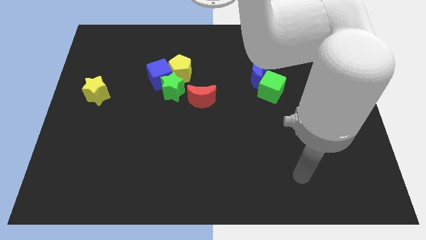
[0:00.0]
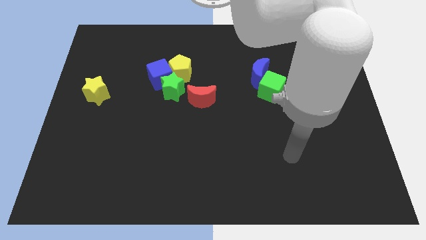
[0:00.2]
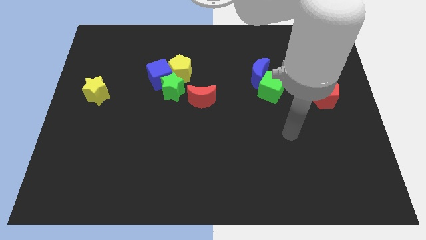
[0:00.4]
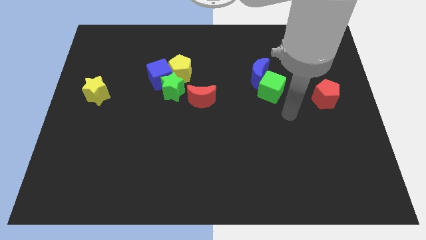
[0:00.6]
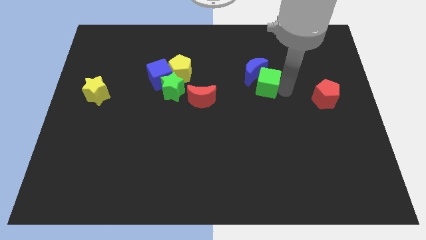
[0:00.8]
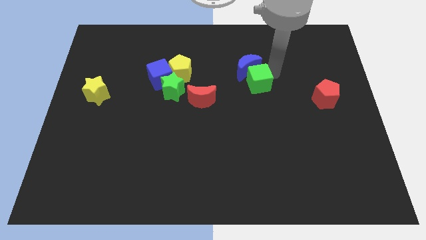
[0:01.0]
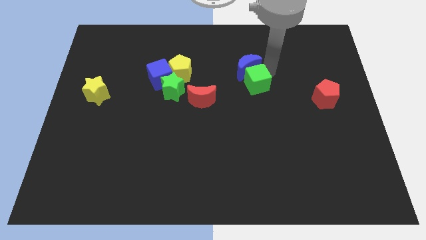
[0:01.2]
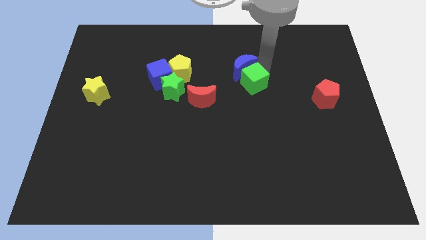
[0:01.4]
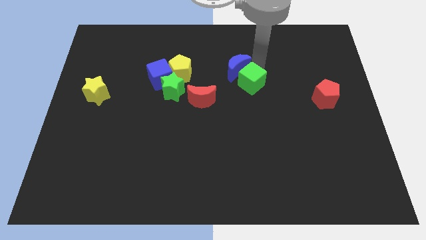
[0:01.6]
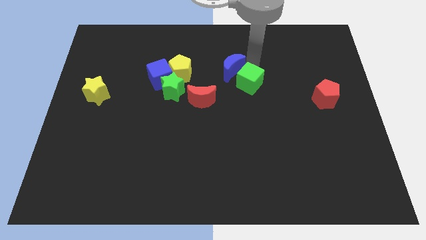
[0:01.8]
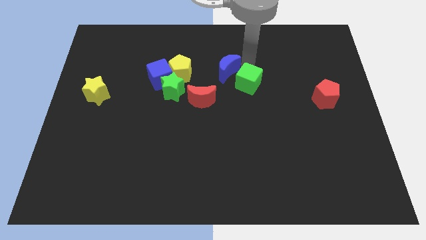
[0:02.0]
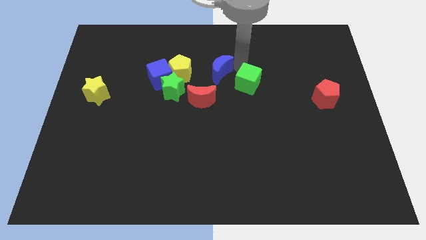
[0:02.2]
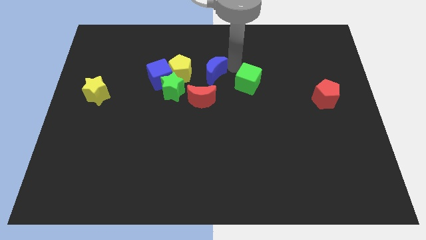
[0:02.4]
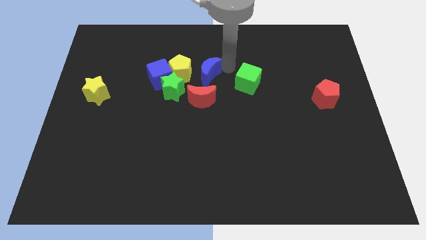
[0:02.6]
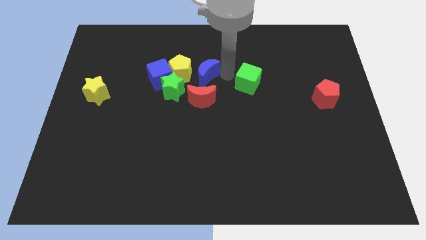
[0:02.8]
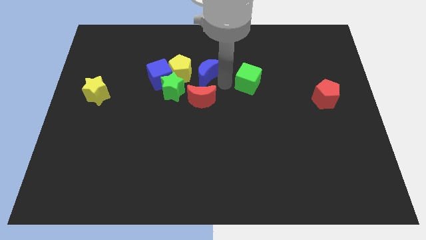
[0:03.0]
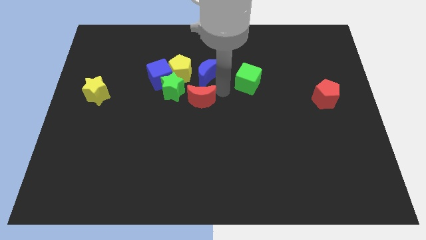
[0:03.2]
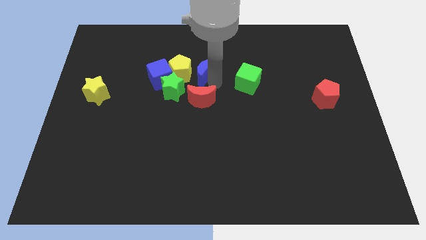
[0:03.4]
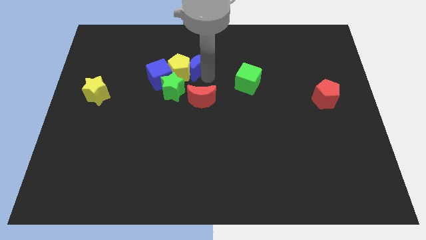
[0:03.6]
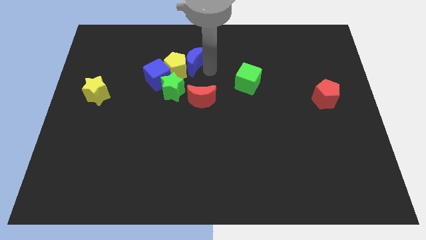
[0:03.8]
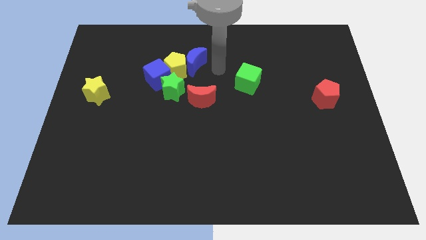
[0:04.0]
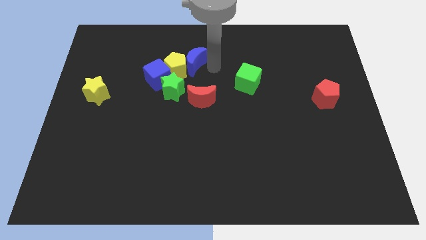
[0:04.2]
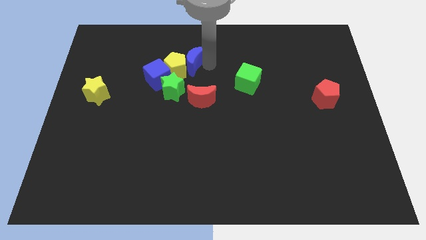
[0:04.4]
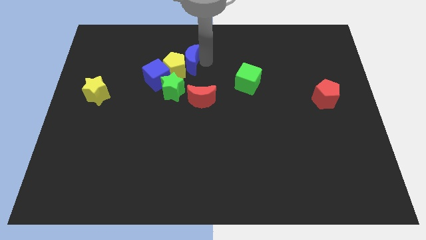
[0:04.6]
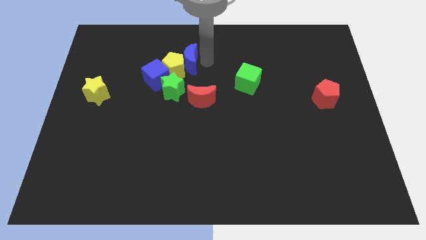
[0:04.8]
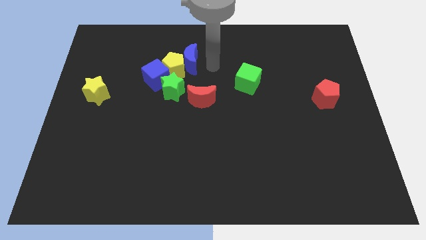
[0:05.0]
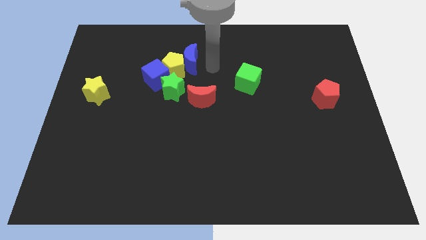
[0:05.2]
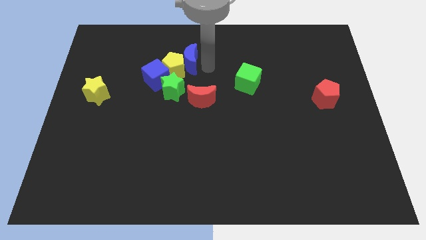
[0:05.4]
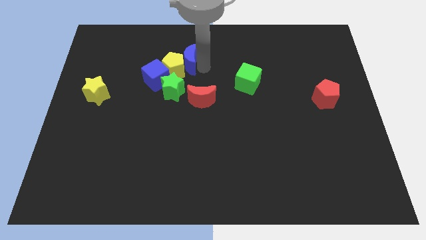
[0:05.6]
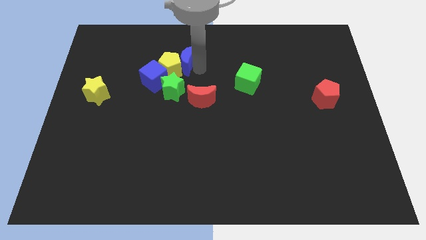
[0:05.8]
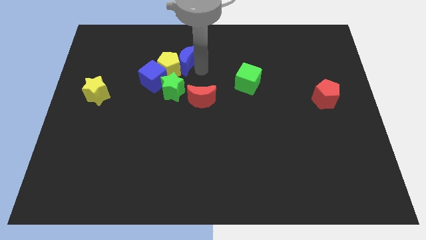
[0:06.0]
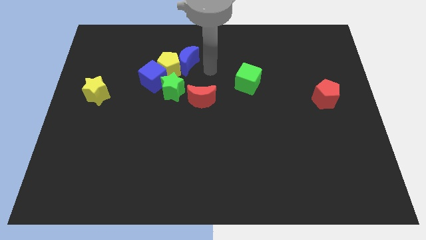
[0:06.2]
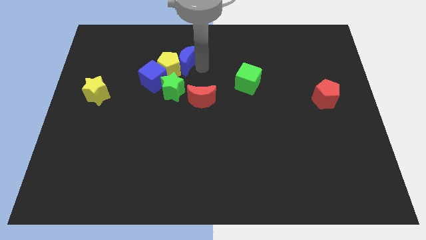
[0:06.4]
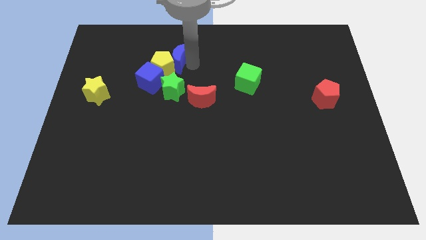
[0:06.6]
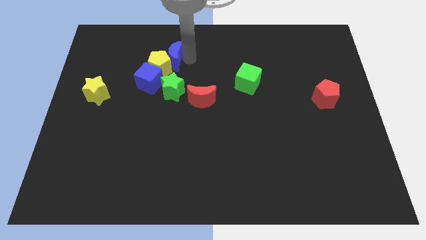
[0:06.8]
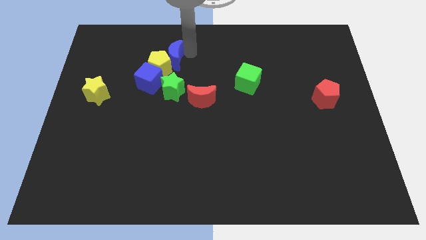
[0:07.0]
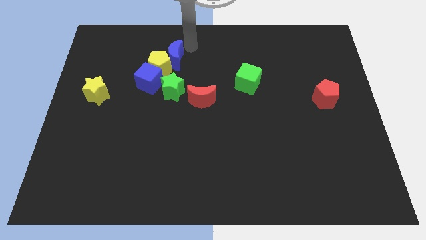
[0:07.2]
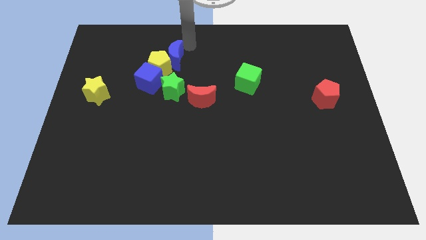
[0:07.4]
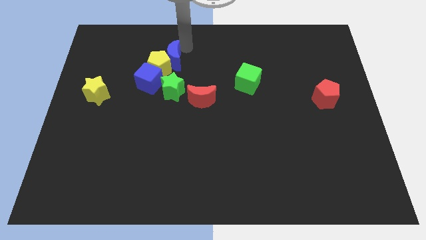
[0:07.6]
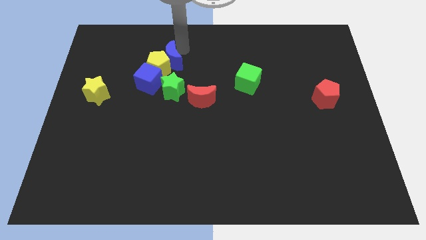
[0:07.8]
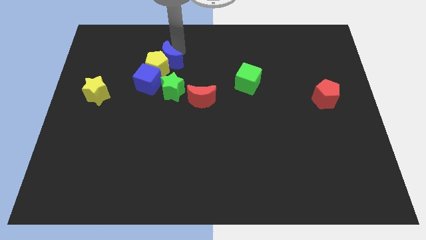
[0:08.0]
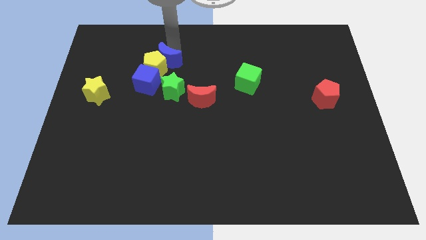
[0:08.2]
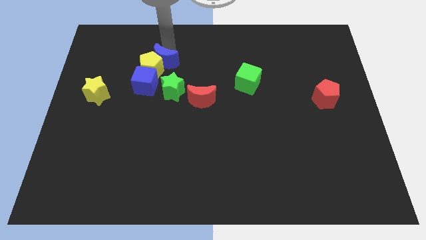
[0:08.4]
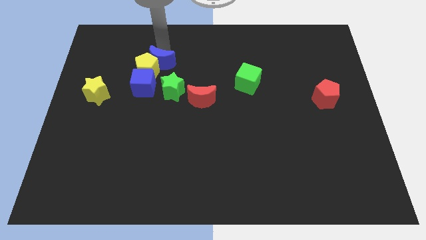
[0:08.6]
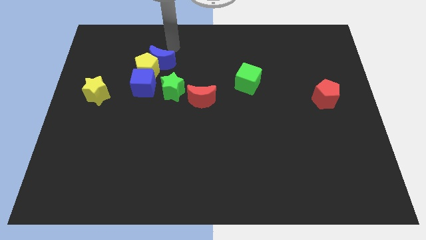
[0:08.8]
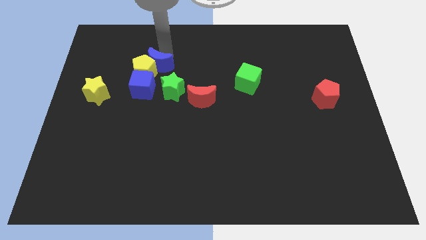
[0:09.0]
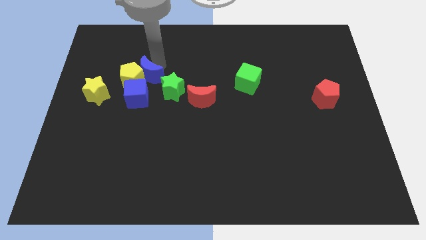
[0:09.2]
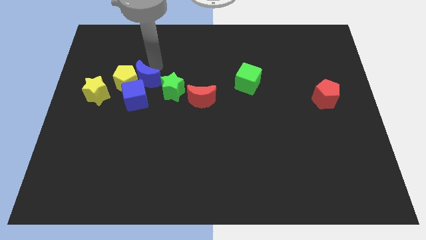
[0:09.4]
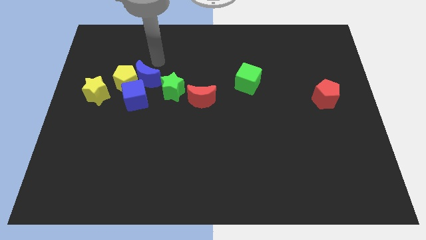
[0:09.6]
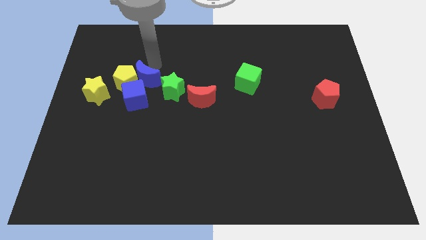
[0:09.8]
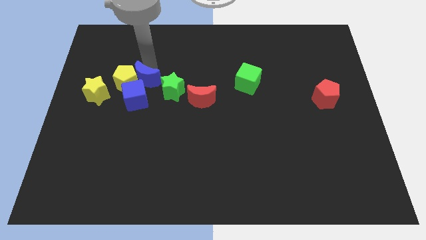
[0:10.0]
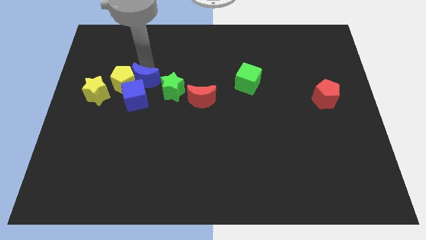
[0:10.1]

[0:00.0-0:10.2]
slide the blue moon towards the blue cube

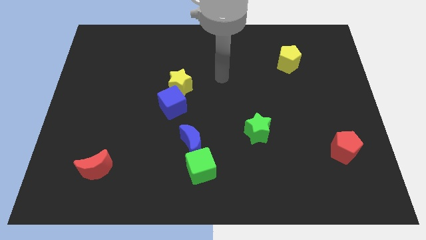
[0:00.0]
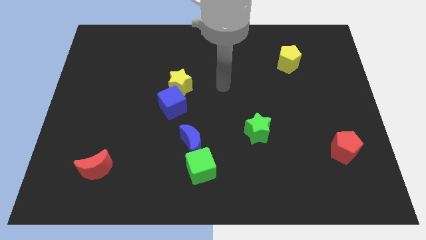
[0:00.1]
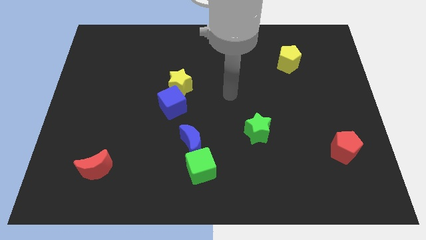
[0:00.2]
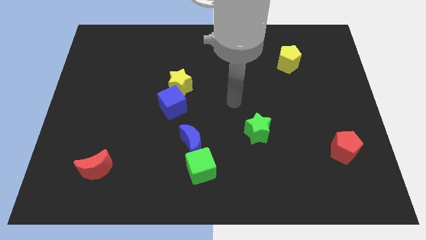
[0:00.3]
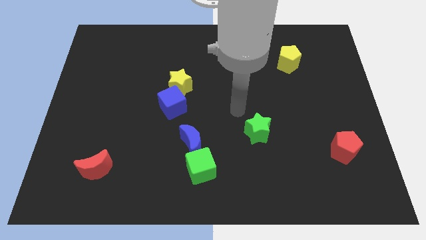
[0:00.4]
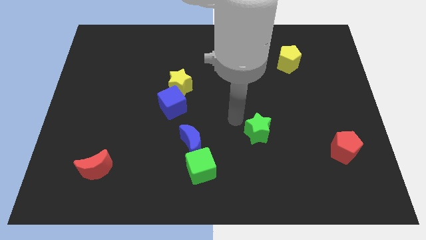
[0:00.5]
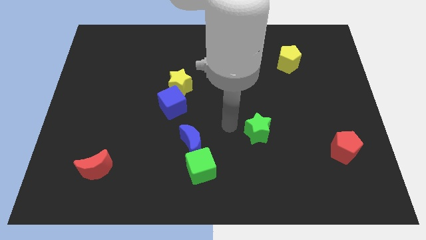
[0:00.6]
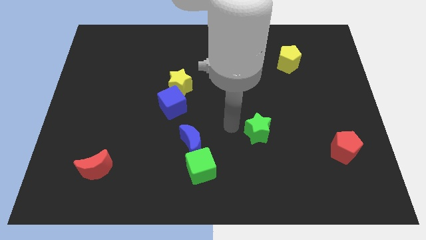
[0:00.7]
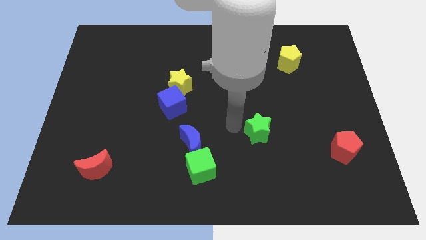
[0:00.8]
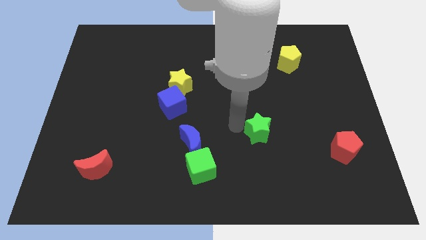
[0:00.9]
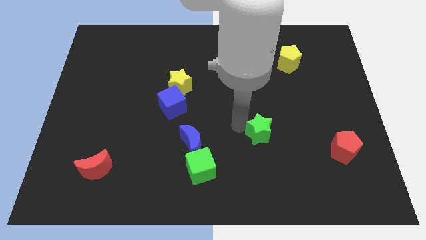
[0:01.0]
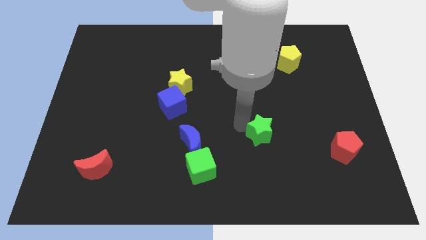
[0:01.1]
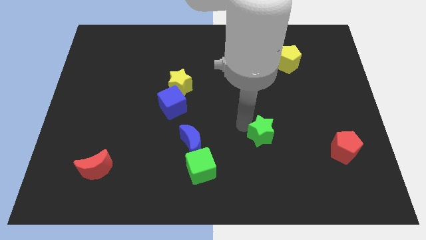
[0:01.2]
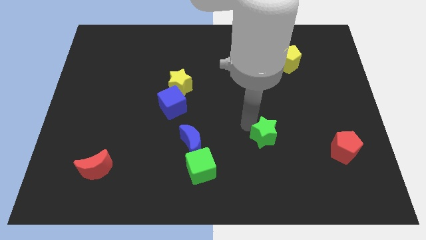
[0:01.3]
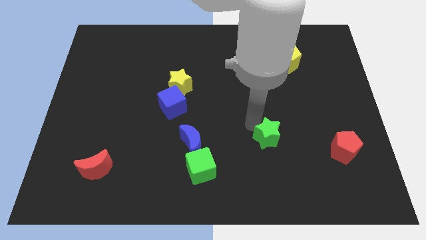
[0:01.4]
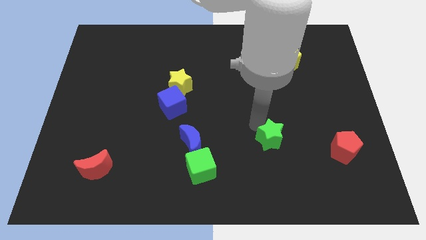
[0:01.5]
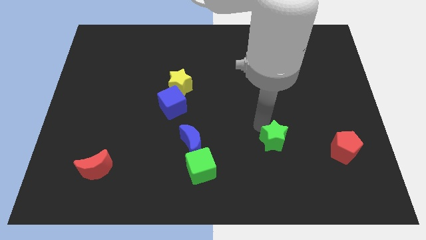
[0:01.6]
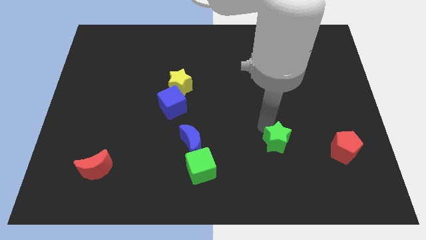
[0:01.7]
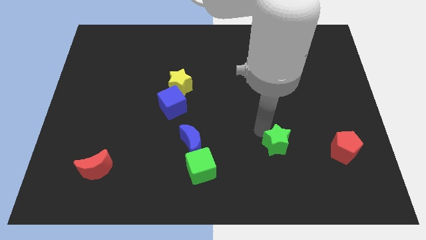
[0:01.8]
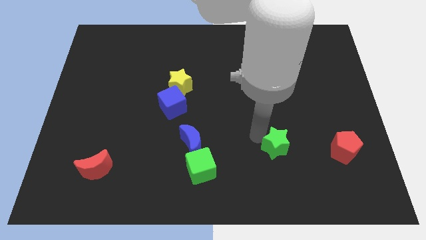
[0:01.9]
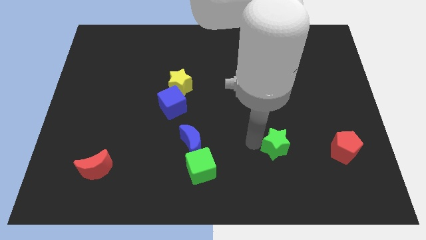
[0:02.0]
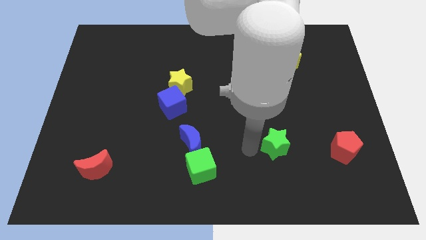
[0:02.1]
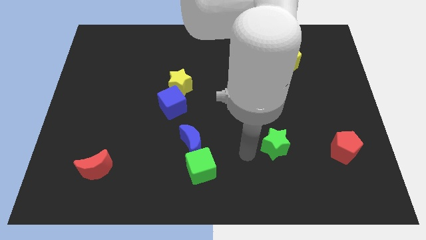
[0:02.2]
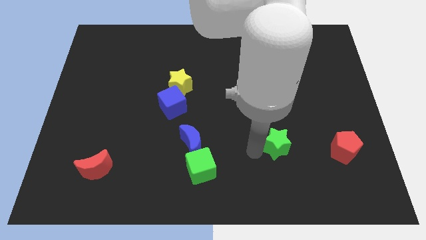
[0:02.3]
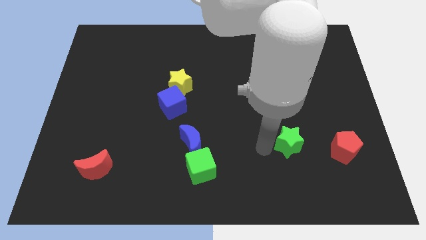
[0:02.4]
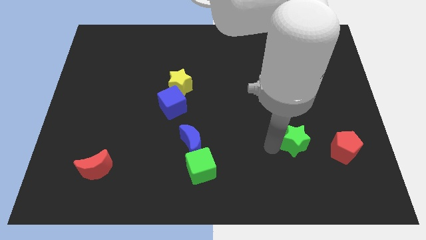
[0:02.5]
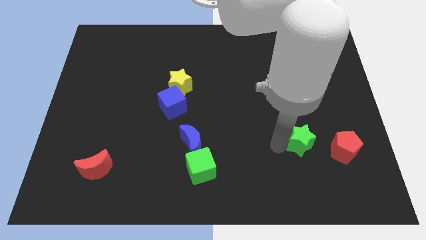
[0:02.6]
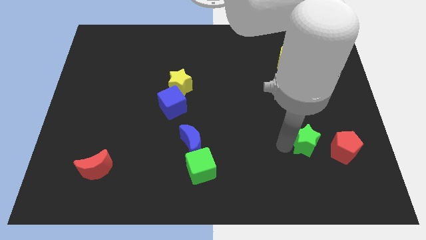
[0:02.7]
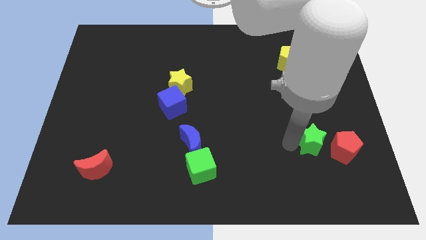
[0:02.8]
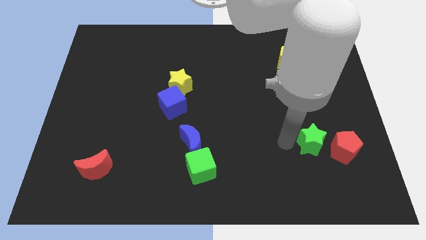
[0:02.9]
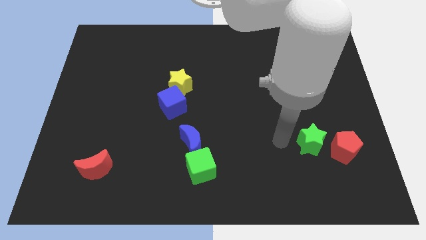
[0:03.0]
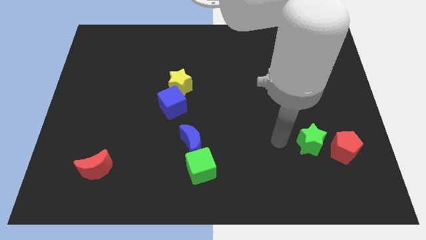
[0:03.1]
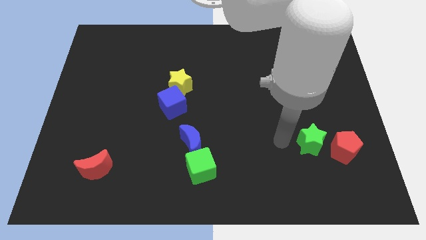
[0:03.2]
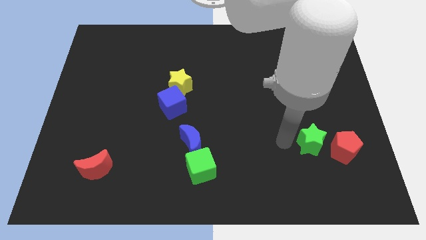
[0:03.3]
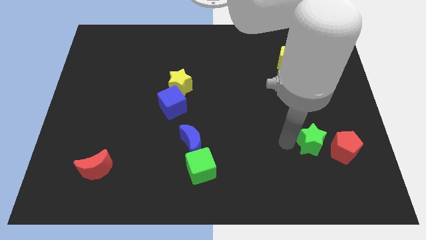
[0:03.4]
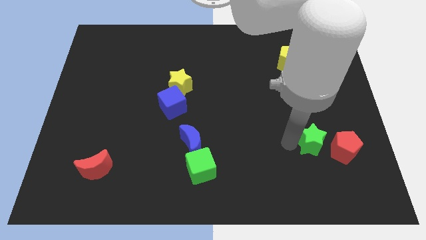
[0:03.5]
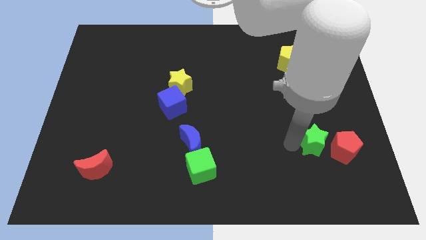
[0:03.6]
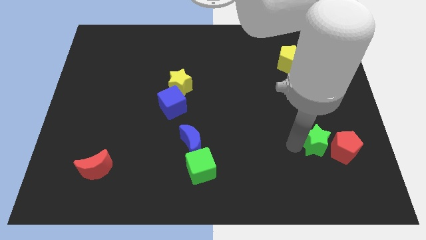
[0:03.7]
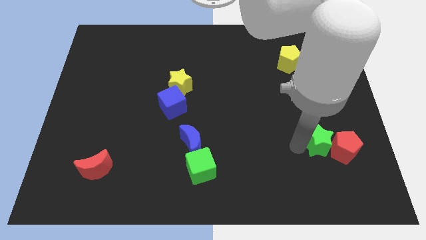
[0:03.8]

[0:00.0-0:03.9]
push the green star next to the red pentagon
